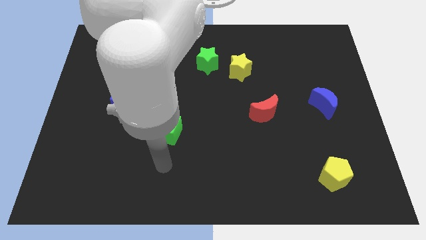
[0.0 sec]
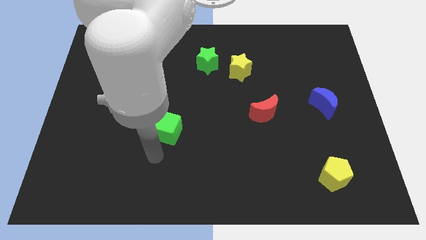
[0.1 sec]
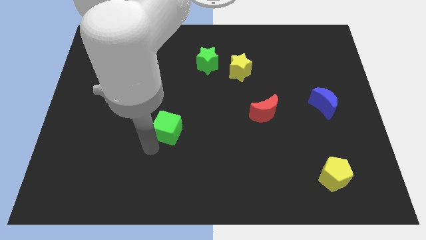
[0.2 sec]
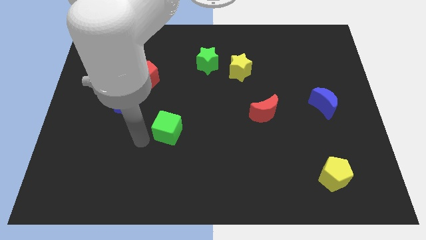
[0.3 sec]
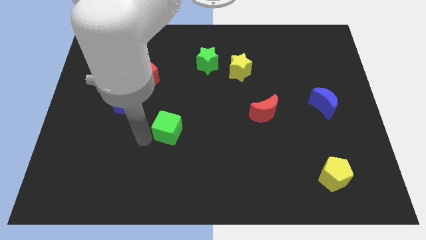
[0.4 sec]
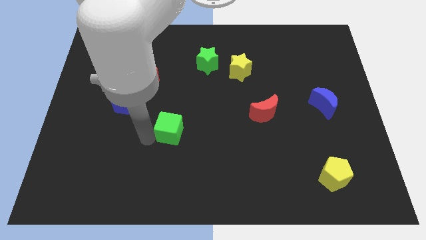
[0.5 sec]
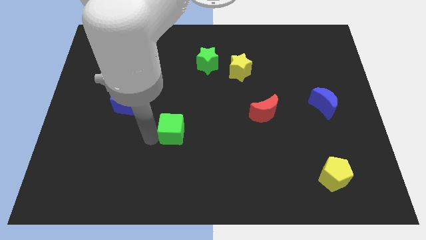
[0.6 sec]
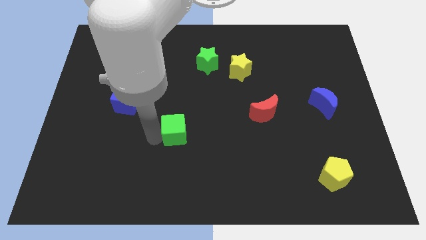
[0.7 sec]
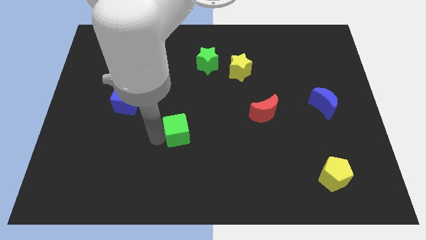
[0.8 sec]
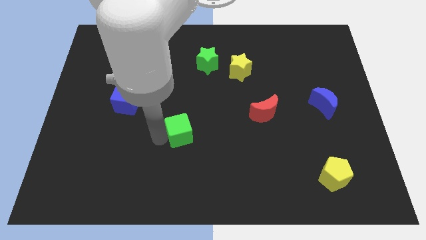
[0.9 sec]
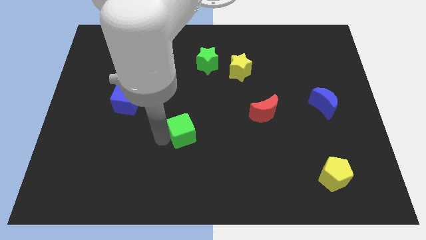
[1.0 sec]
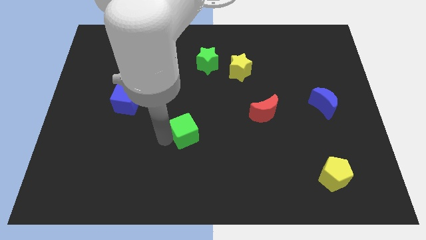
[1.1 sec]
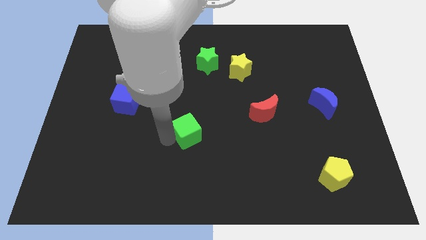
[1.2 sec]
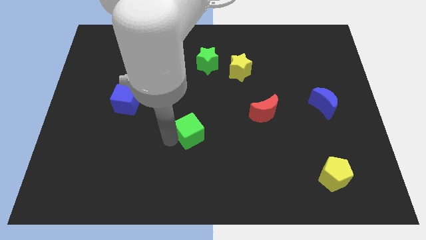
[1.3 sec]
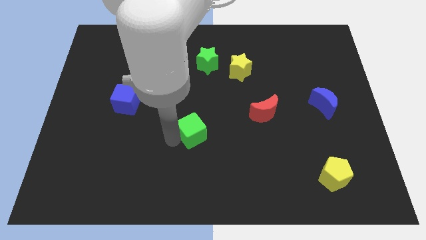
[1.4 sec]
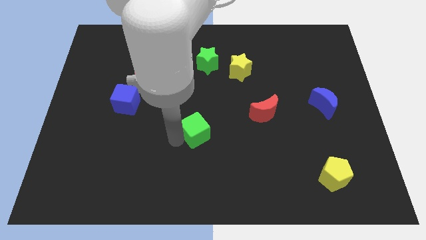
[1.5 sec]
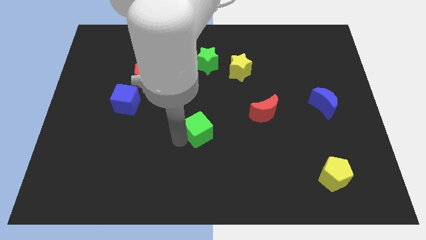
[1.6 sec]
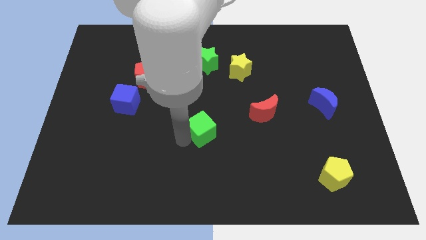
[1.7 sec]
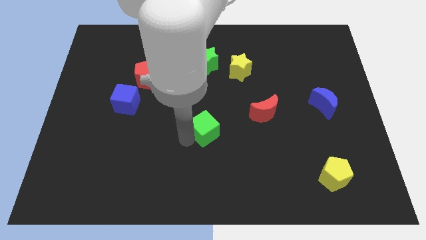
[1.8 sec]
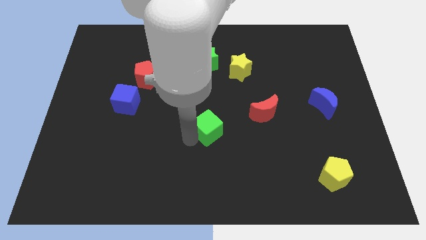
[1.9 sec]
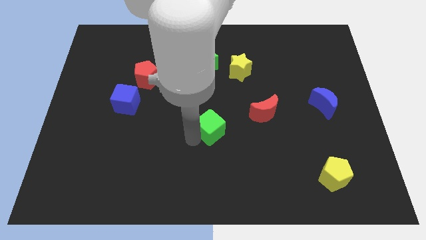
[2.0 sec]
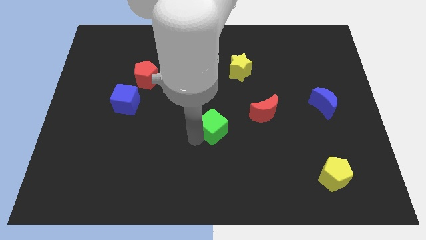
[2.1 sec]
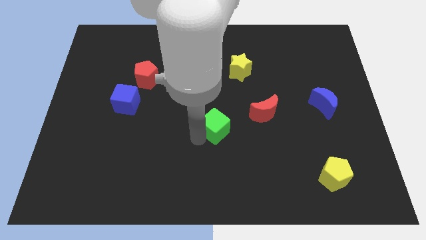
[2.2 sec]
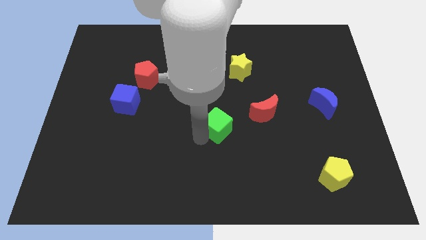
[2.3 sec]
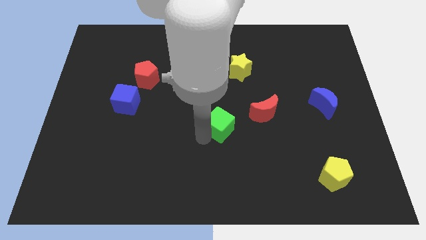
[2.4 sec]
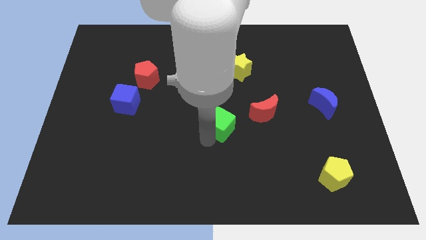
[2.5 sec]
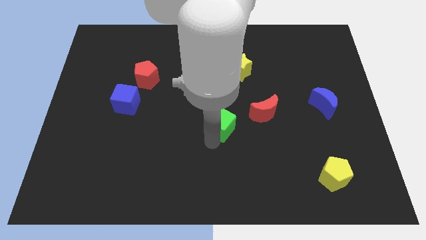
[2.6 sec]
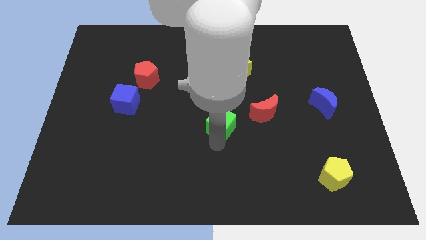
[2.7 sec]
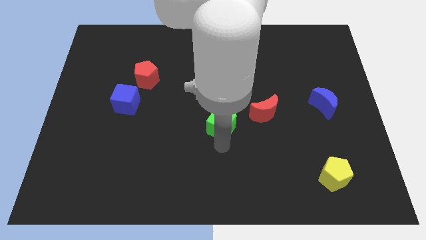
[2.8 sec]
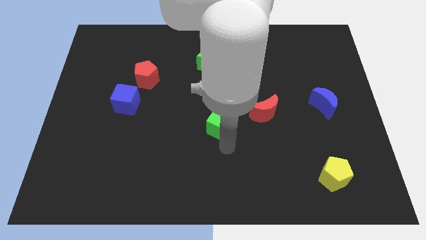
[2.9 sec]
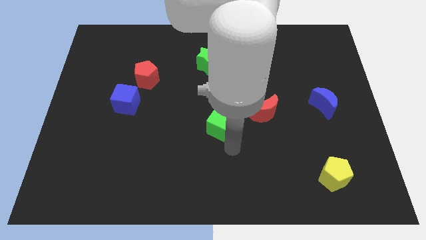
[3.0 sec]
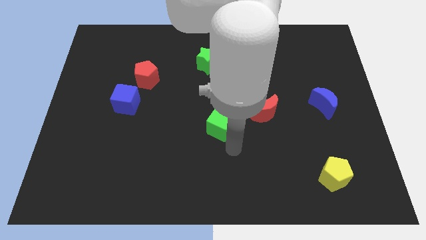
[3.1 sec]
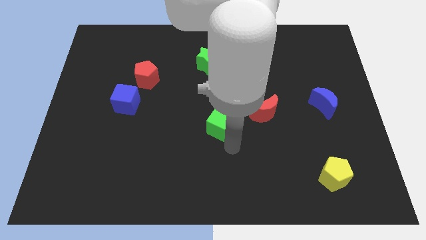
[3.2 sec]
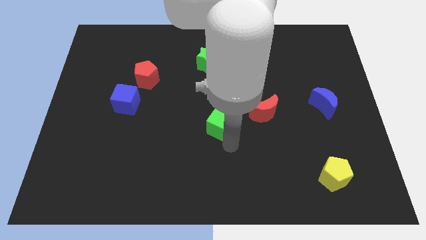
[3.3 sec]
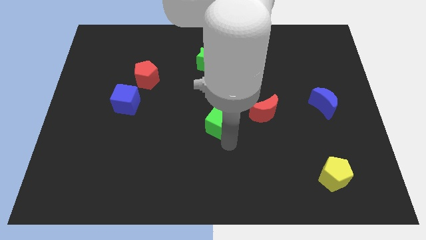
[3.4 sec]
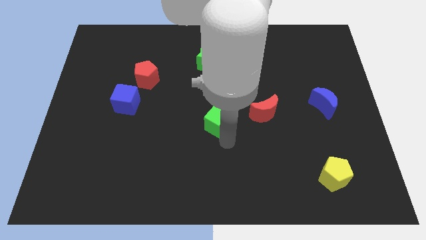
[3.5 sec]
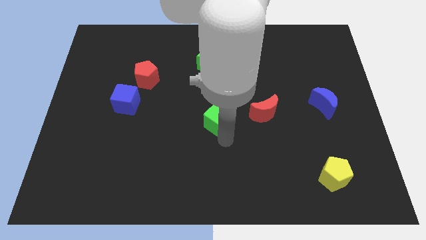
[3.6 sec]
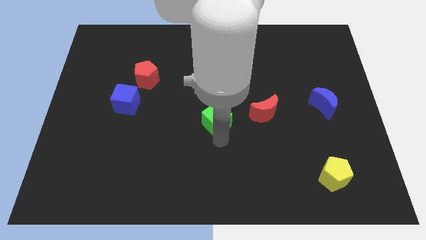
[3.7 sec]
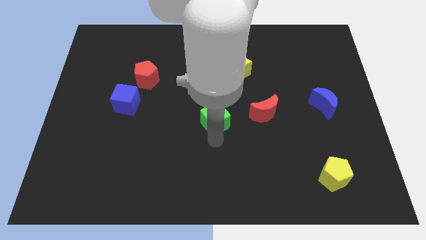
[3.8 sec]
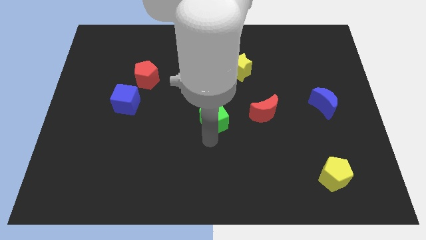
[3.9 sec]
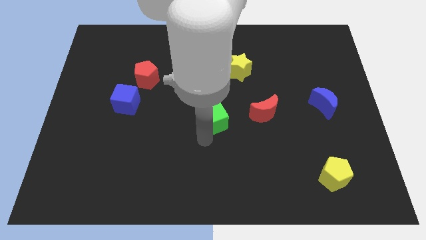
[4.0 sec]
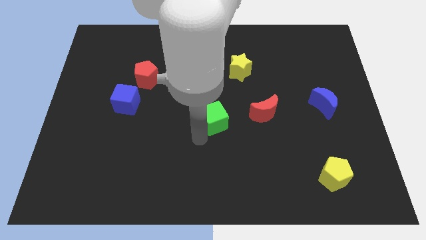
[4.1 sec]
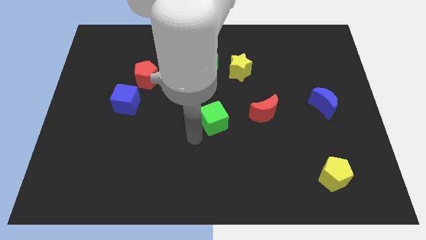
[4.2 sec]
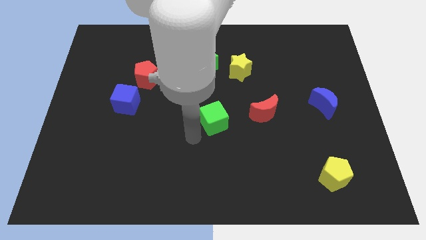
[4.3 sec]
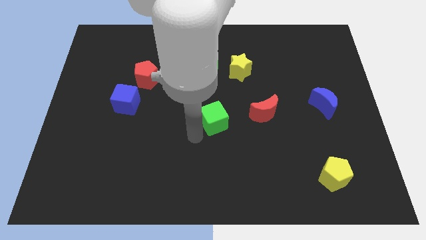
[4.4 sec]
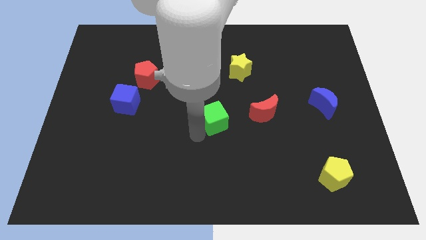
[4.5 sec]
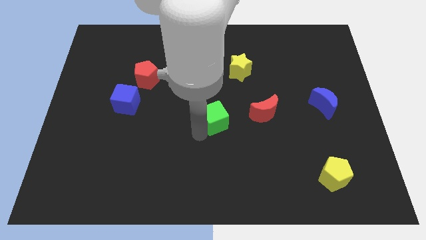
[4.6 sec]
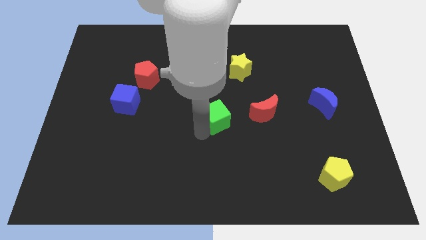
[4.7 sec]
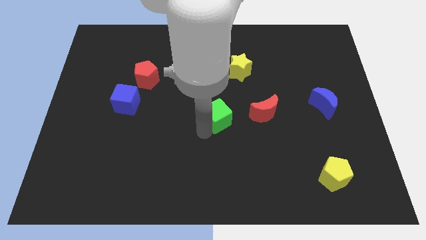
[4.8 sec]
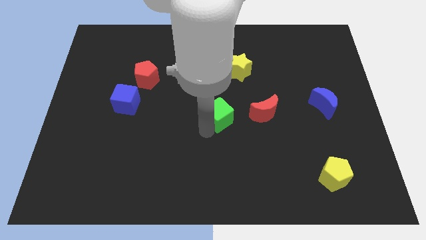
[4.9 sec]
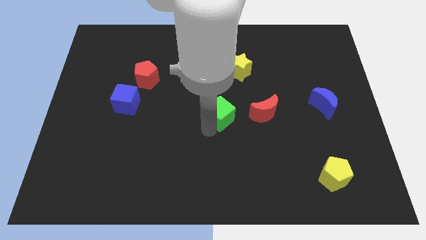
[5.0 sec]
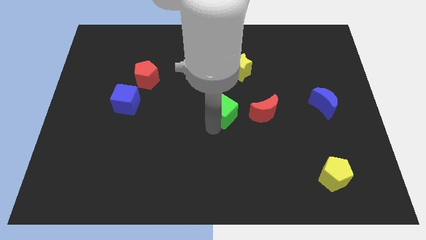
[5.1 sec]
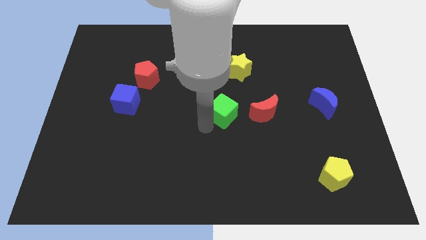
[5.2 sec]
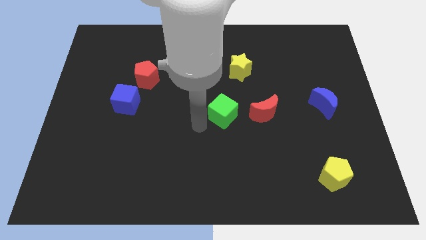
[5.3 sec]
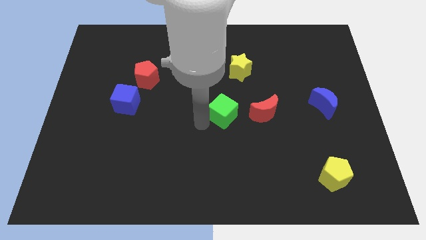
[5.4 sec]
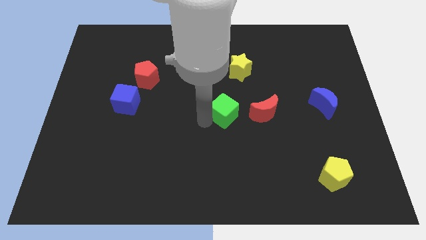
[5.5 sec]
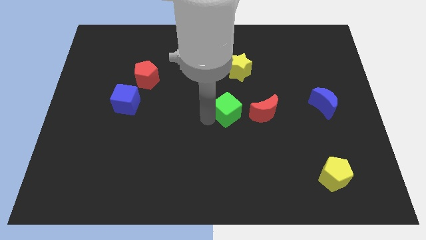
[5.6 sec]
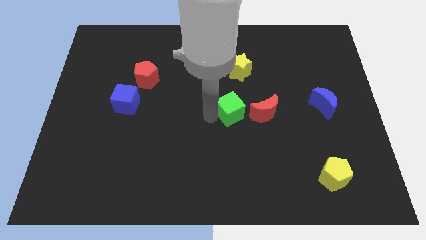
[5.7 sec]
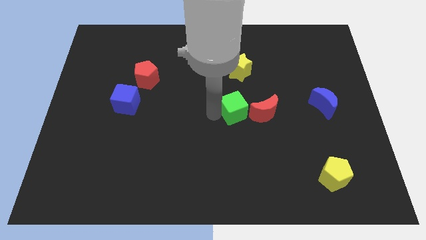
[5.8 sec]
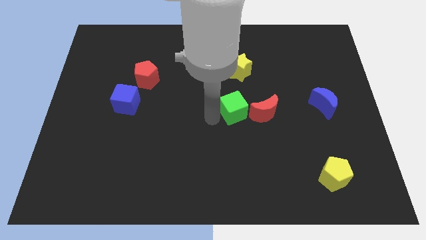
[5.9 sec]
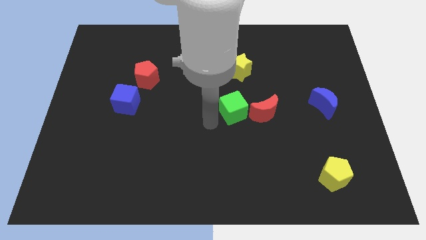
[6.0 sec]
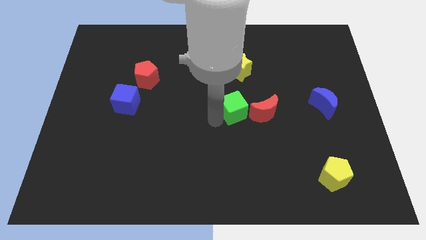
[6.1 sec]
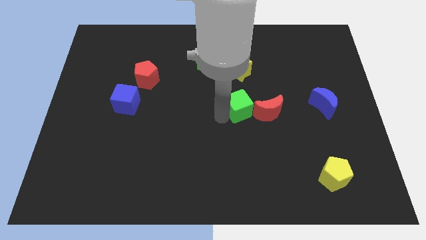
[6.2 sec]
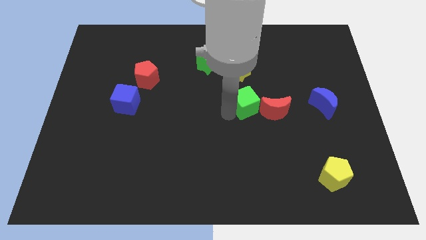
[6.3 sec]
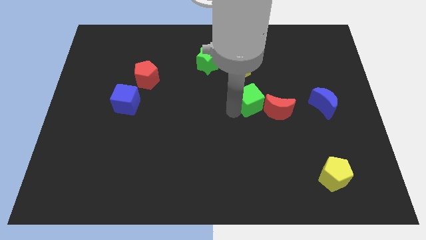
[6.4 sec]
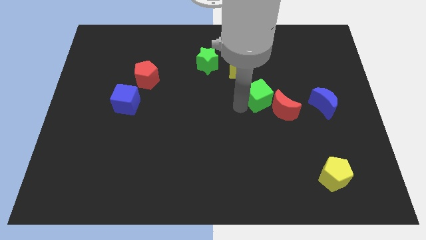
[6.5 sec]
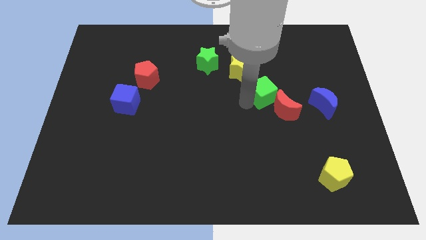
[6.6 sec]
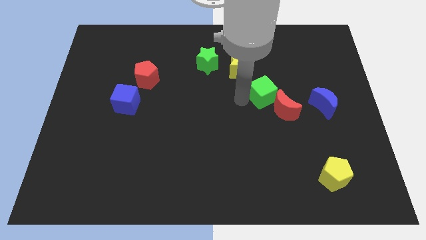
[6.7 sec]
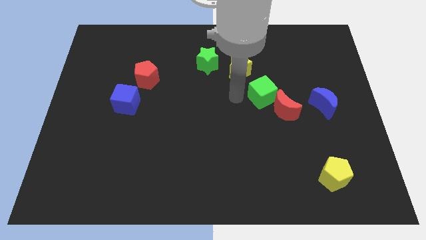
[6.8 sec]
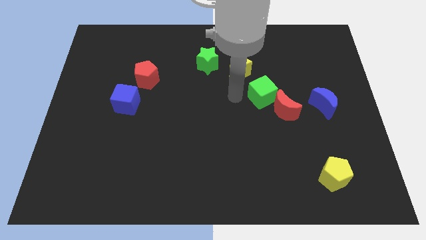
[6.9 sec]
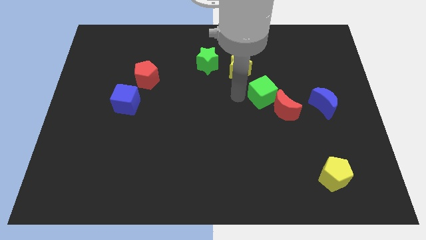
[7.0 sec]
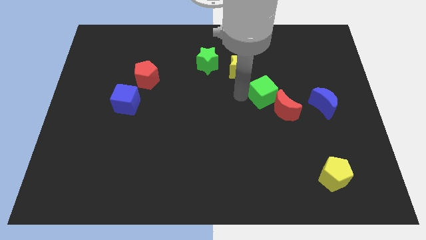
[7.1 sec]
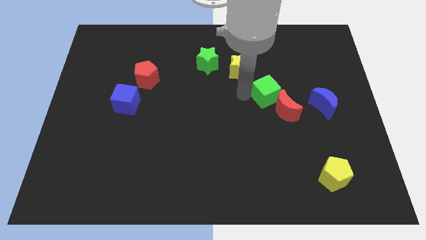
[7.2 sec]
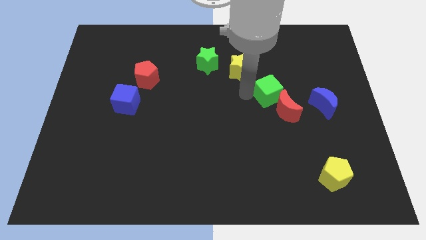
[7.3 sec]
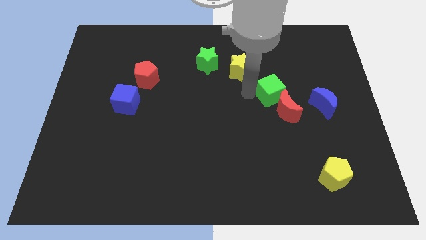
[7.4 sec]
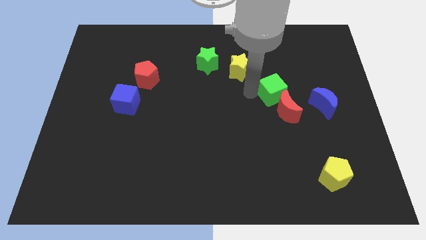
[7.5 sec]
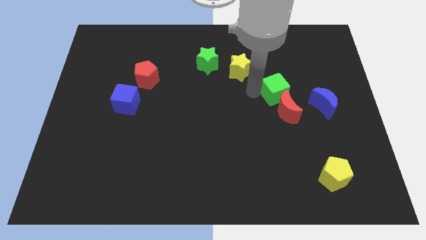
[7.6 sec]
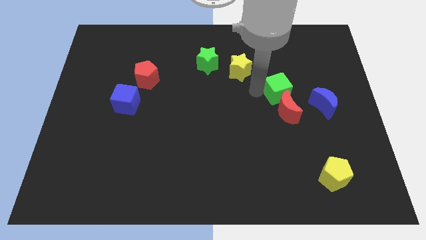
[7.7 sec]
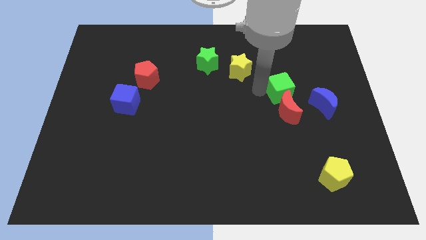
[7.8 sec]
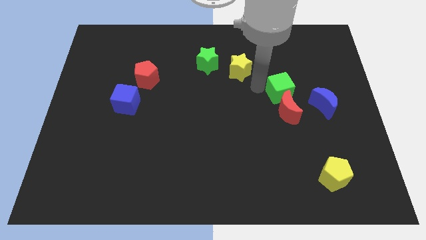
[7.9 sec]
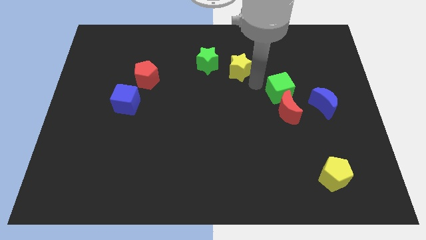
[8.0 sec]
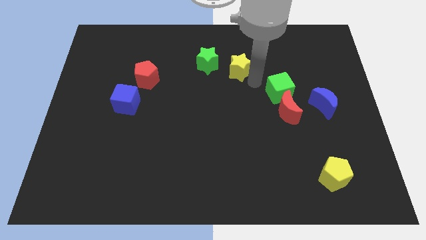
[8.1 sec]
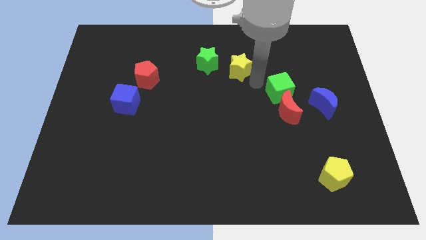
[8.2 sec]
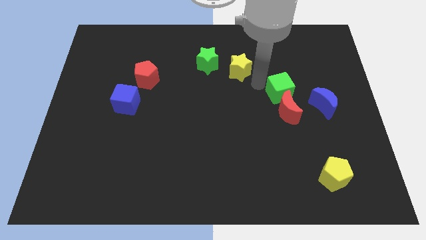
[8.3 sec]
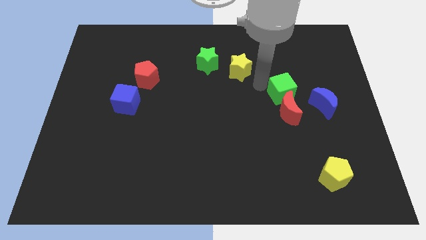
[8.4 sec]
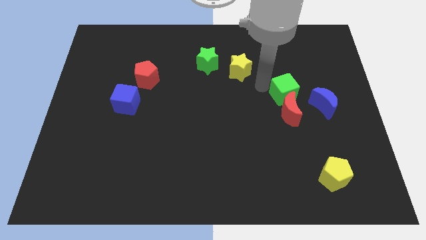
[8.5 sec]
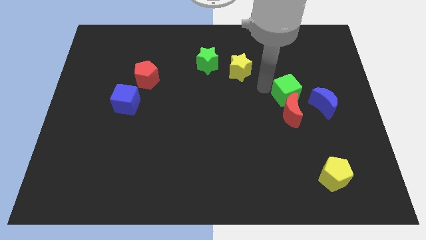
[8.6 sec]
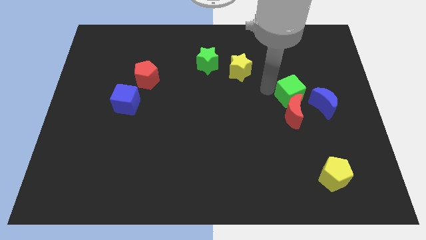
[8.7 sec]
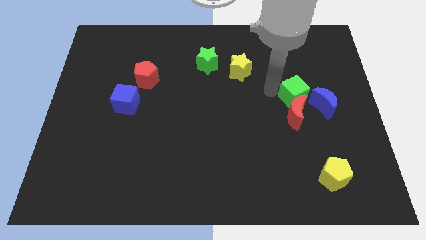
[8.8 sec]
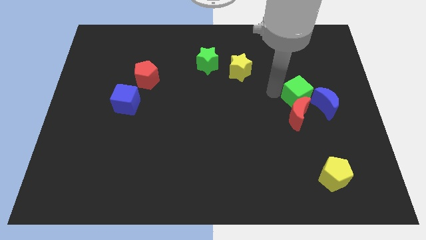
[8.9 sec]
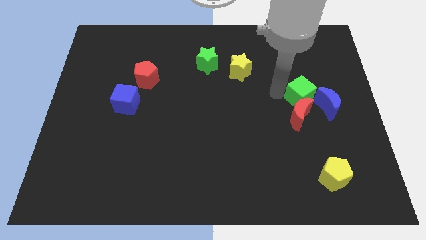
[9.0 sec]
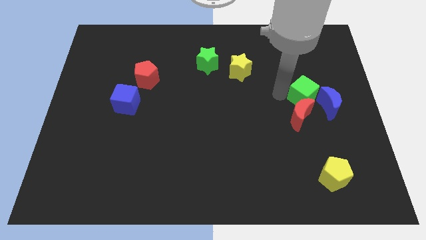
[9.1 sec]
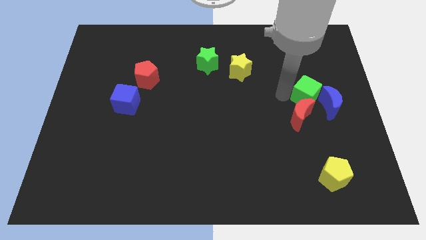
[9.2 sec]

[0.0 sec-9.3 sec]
push the green cube towards the blue moon
